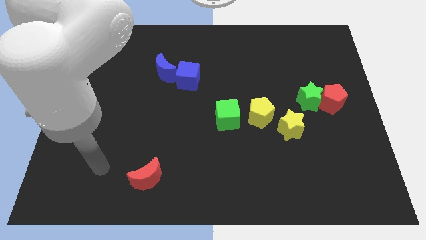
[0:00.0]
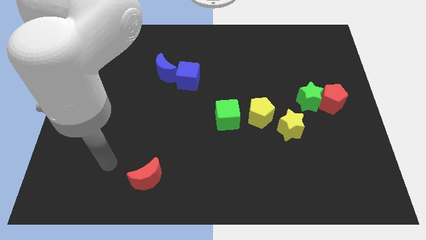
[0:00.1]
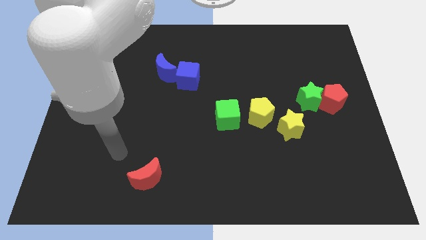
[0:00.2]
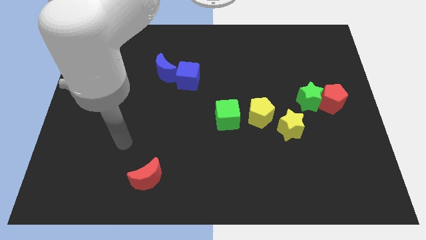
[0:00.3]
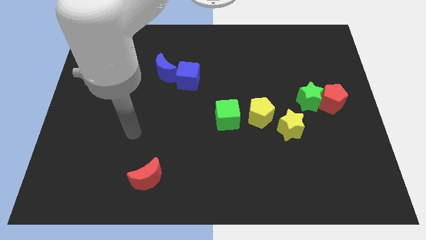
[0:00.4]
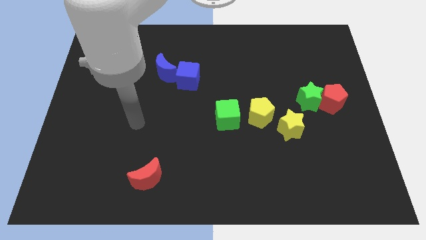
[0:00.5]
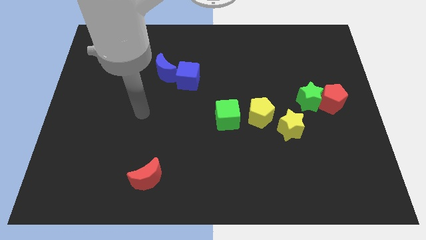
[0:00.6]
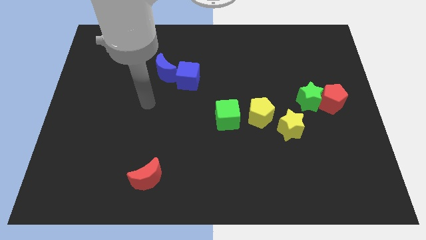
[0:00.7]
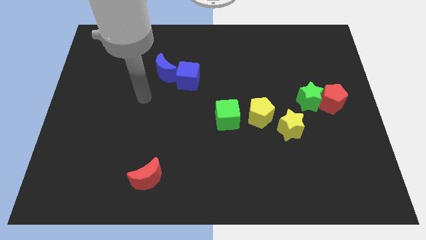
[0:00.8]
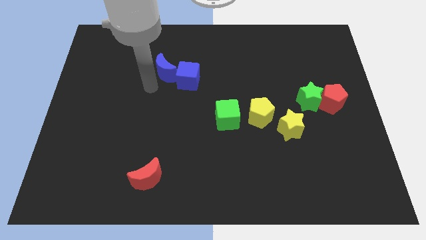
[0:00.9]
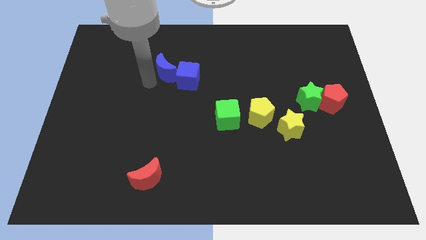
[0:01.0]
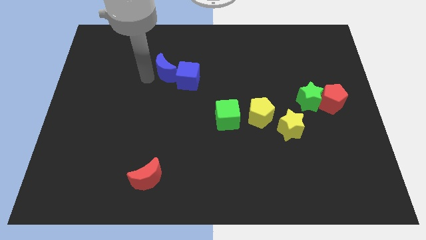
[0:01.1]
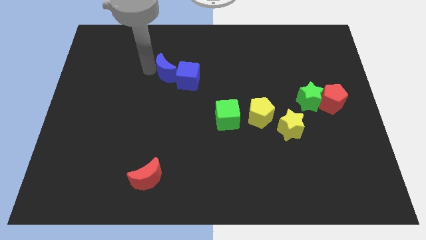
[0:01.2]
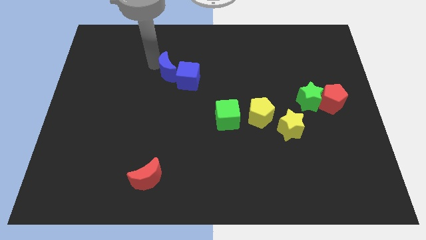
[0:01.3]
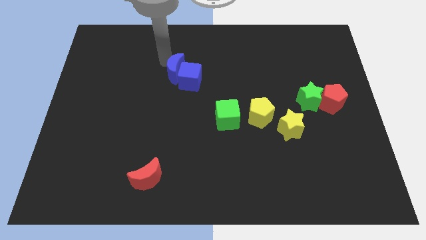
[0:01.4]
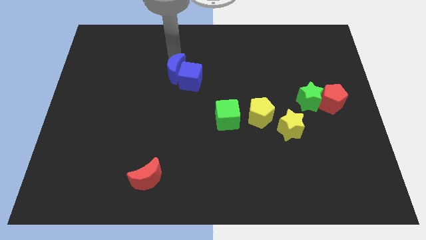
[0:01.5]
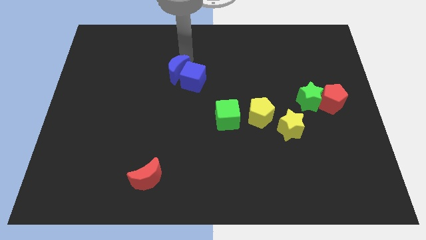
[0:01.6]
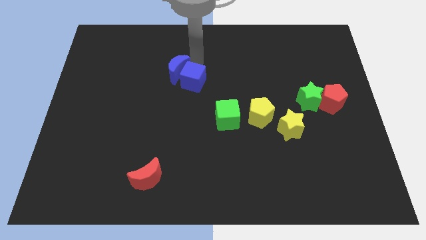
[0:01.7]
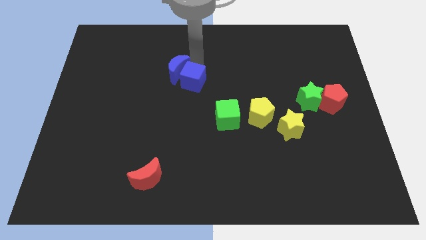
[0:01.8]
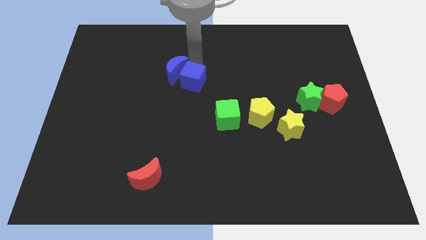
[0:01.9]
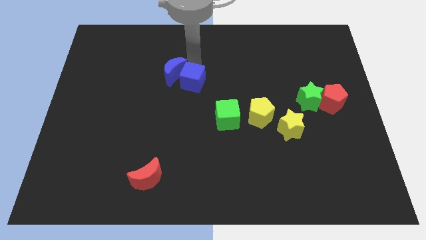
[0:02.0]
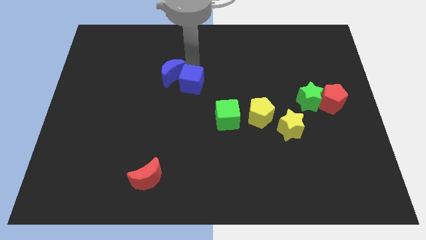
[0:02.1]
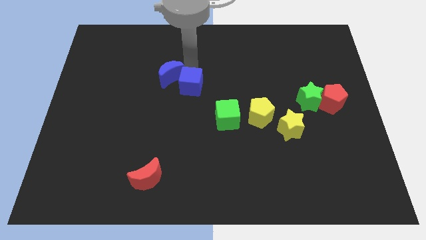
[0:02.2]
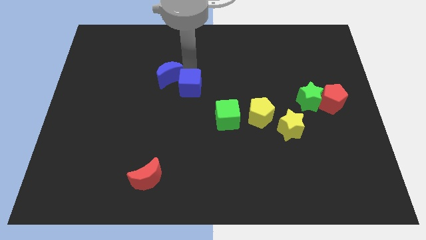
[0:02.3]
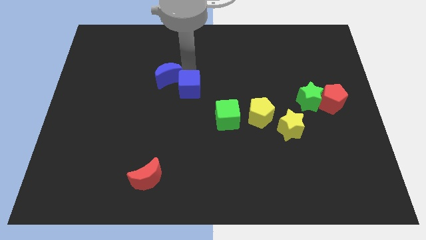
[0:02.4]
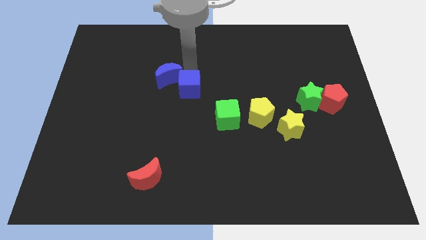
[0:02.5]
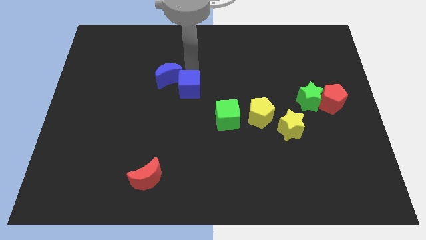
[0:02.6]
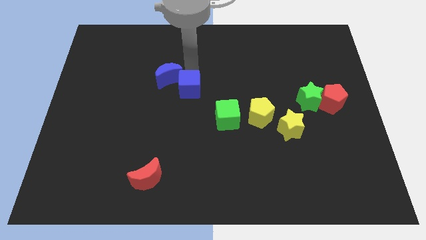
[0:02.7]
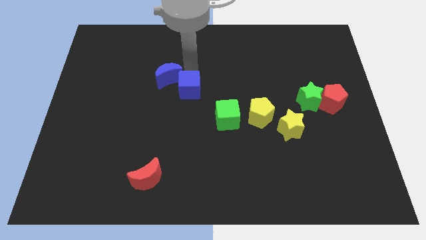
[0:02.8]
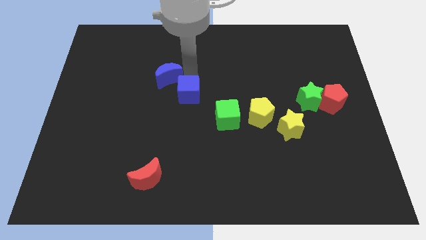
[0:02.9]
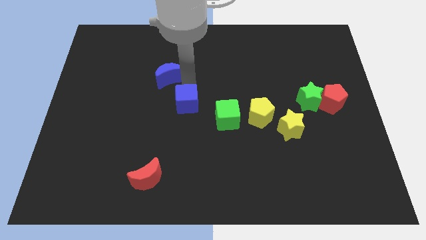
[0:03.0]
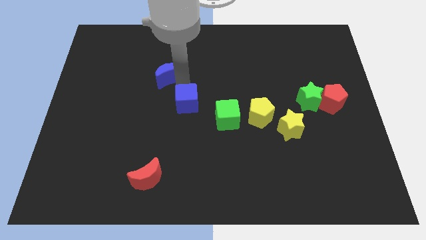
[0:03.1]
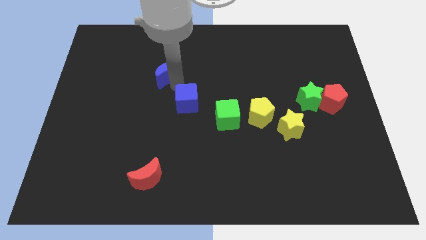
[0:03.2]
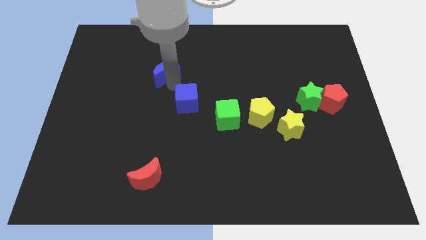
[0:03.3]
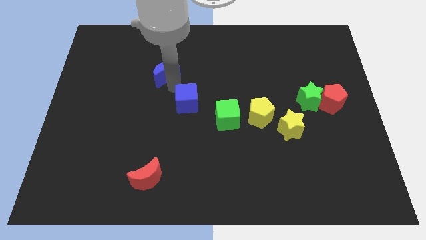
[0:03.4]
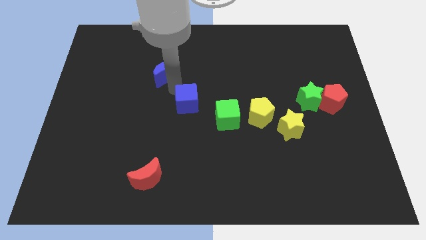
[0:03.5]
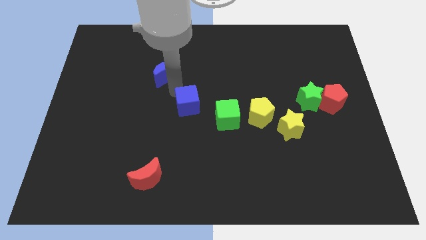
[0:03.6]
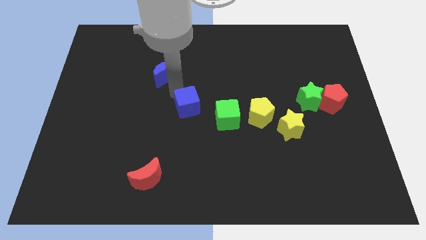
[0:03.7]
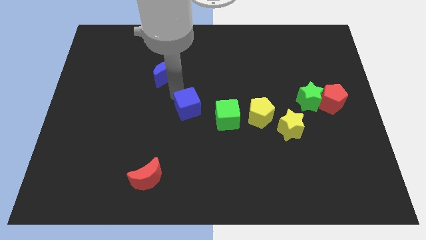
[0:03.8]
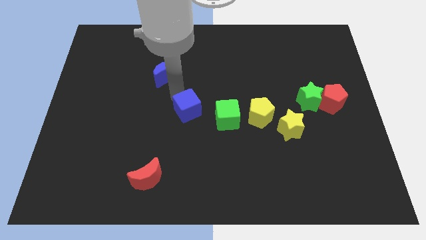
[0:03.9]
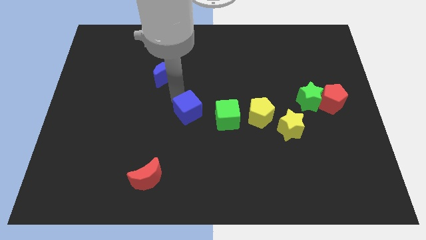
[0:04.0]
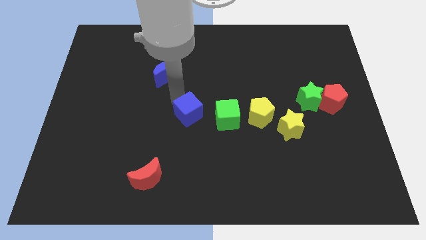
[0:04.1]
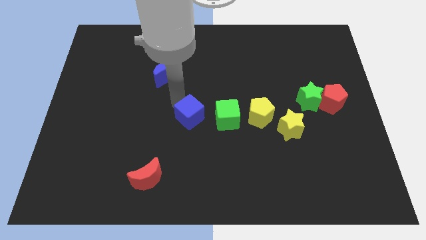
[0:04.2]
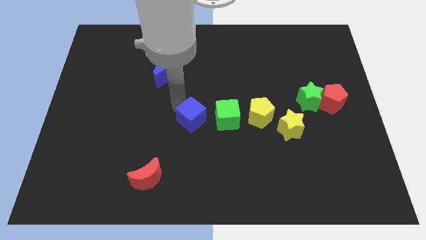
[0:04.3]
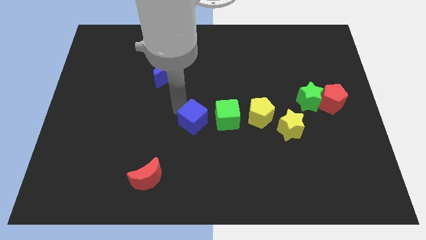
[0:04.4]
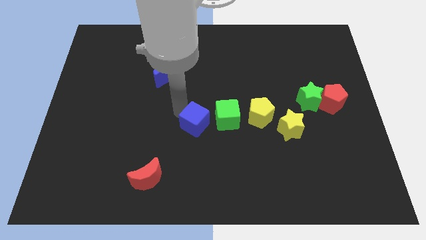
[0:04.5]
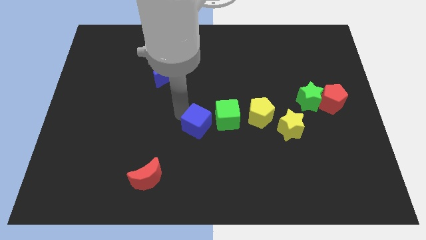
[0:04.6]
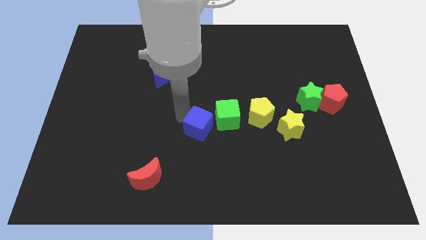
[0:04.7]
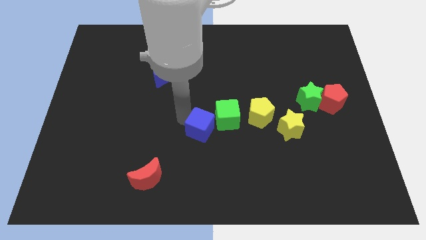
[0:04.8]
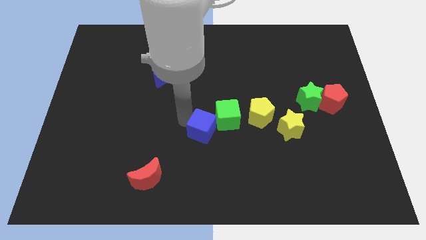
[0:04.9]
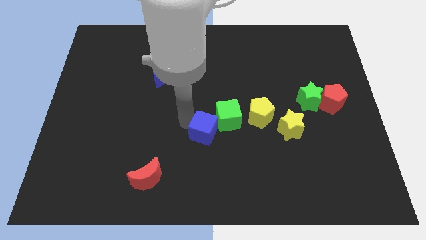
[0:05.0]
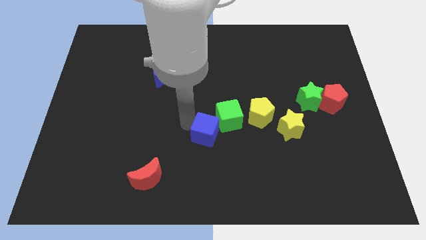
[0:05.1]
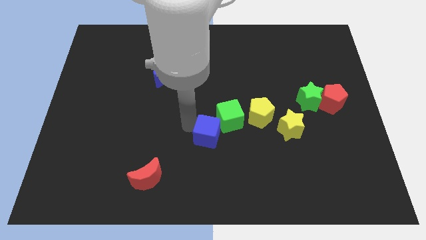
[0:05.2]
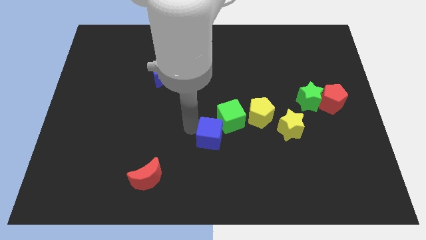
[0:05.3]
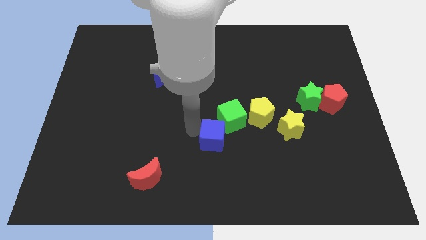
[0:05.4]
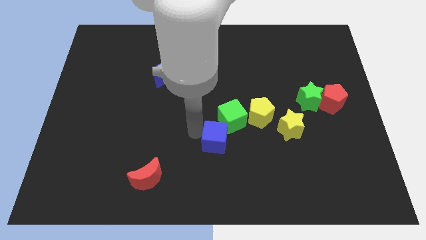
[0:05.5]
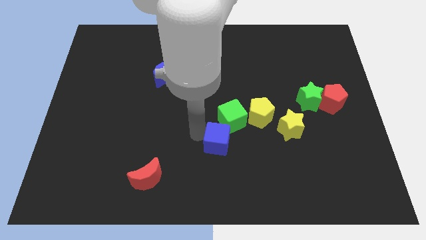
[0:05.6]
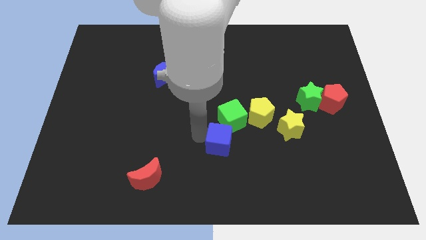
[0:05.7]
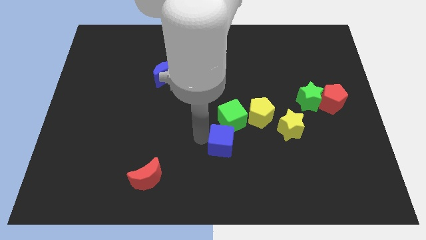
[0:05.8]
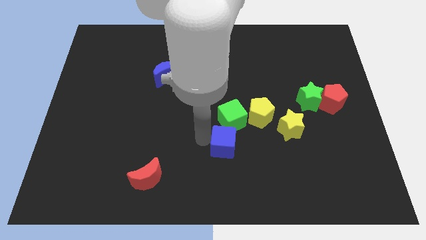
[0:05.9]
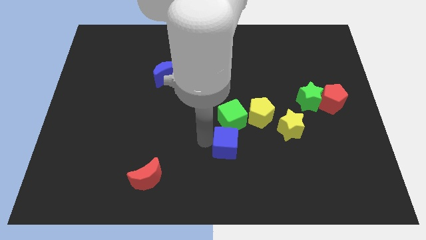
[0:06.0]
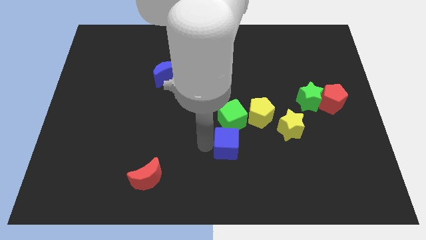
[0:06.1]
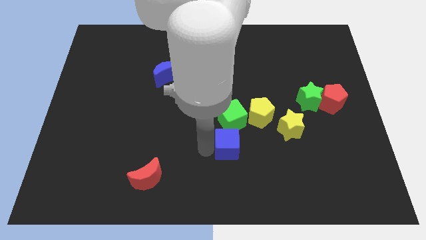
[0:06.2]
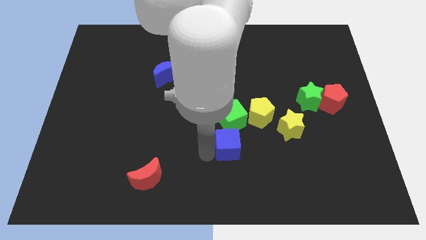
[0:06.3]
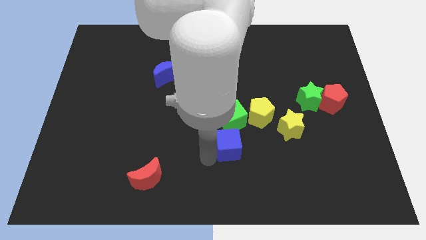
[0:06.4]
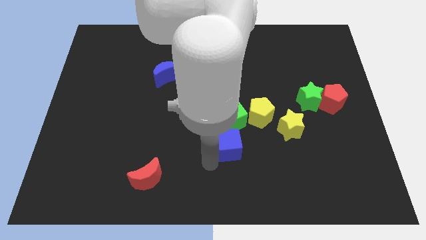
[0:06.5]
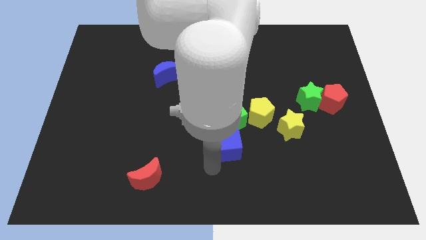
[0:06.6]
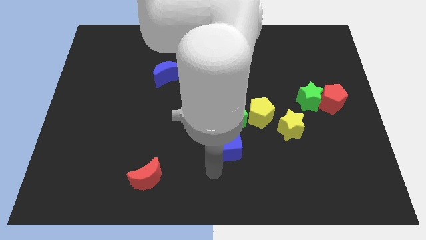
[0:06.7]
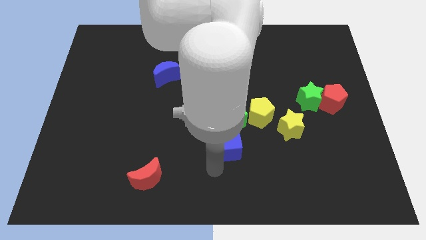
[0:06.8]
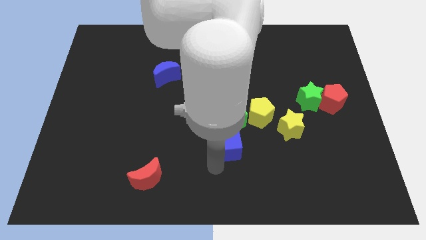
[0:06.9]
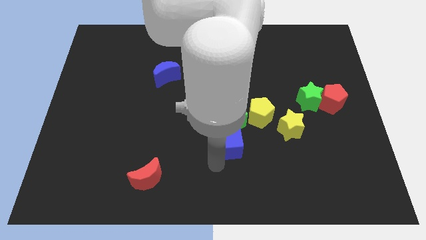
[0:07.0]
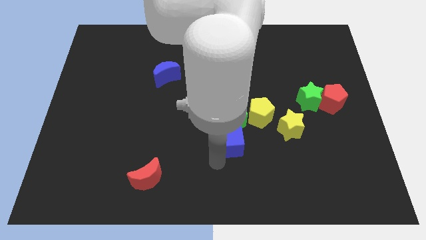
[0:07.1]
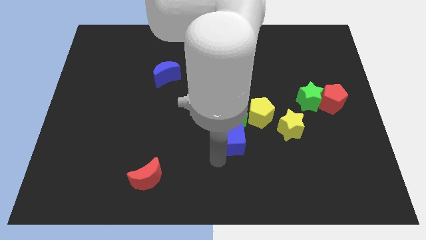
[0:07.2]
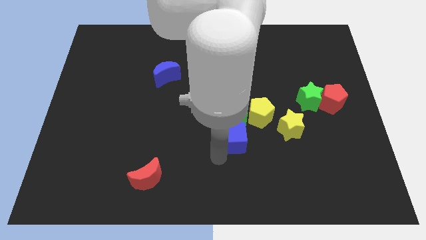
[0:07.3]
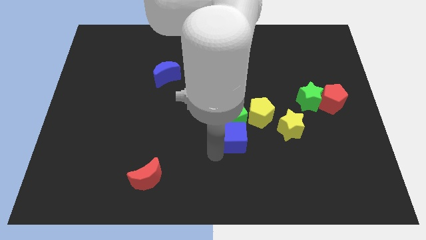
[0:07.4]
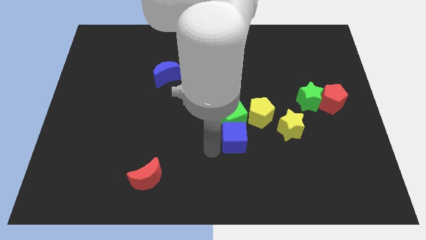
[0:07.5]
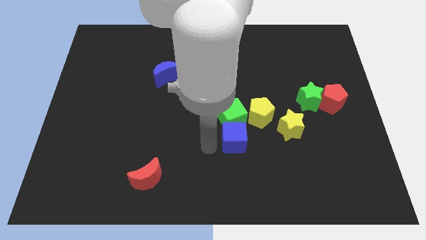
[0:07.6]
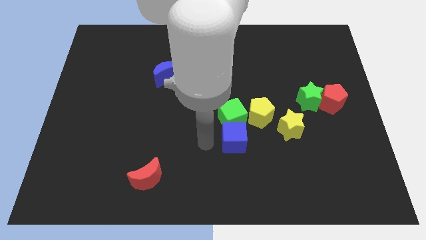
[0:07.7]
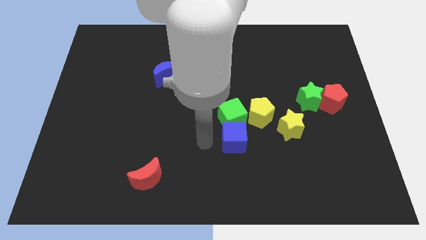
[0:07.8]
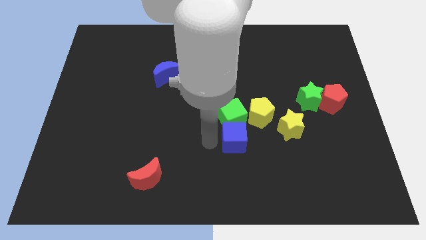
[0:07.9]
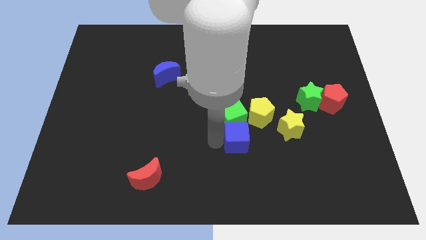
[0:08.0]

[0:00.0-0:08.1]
move the blue cube diagonally downwards and right

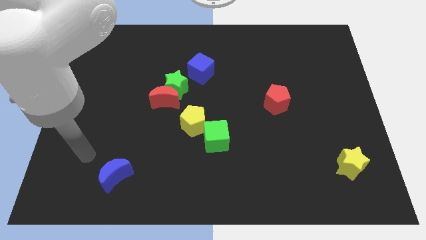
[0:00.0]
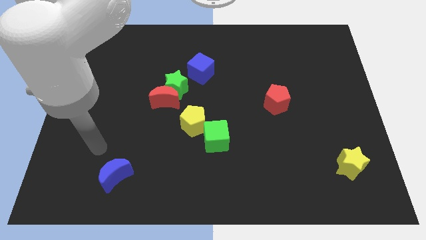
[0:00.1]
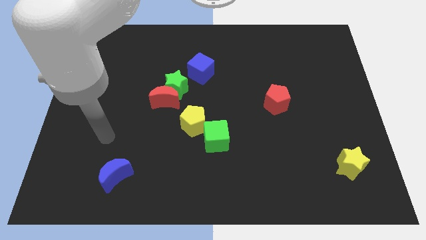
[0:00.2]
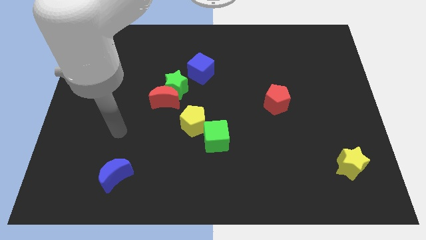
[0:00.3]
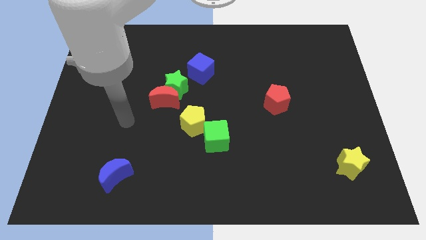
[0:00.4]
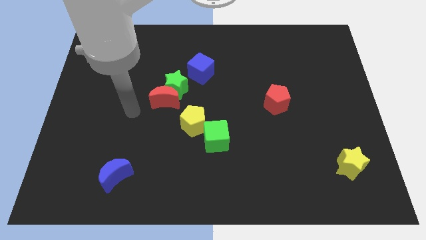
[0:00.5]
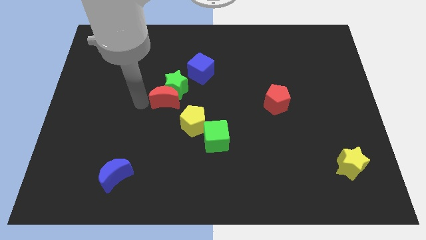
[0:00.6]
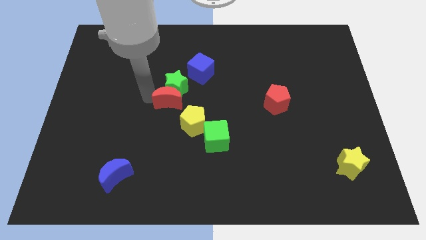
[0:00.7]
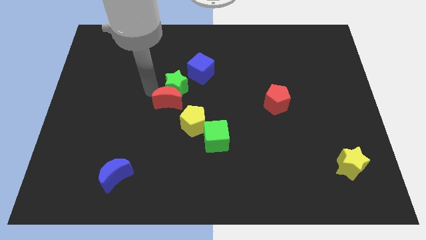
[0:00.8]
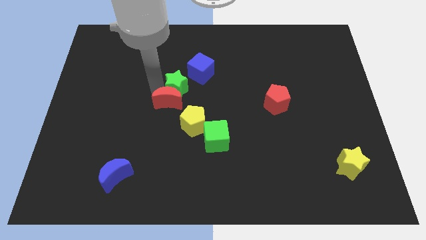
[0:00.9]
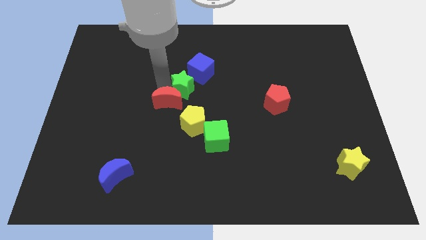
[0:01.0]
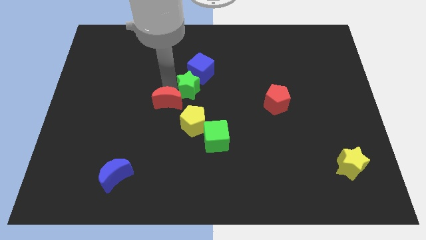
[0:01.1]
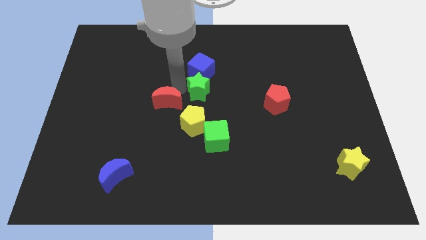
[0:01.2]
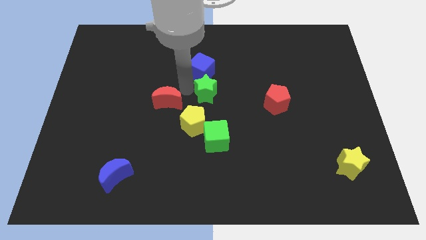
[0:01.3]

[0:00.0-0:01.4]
slide the green star a bit right
